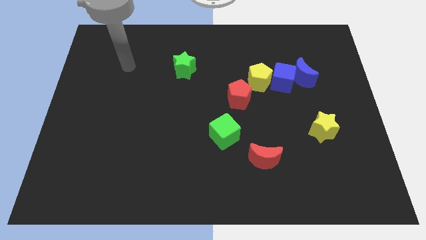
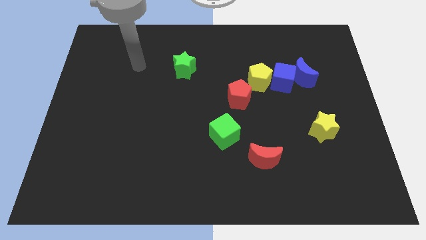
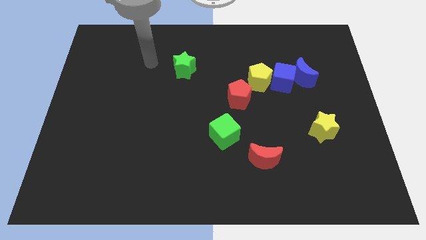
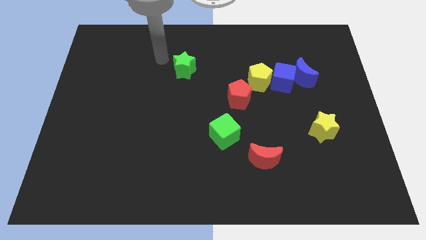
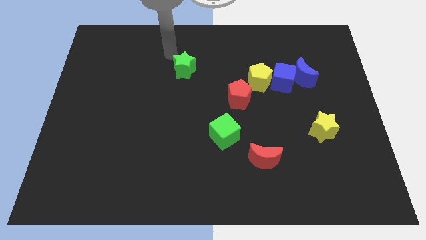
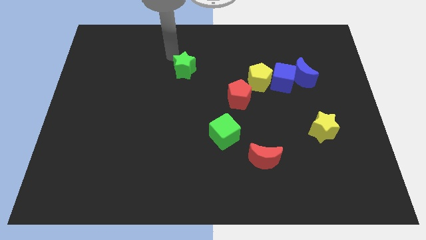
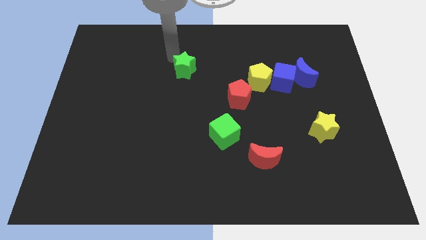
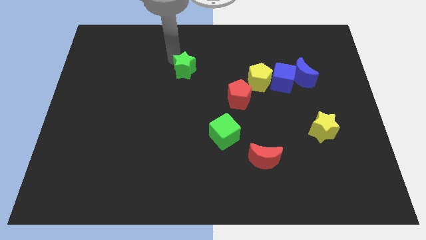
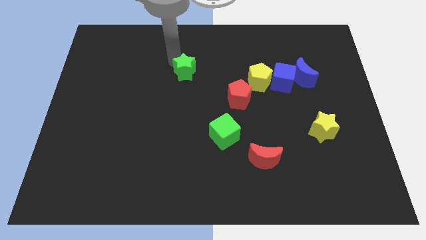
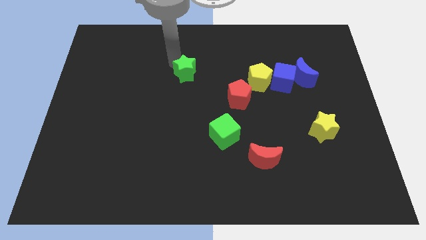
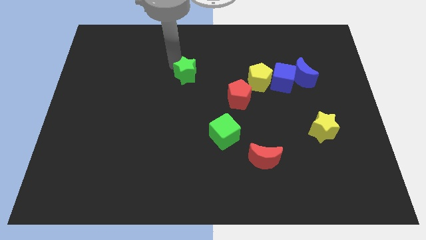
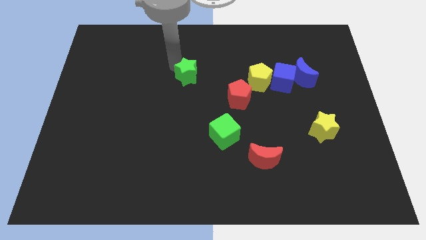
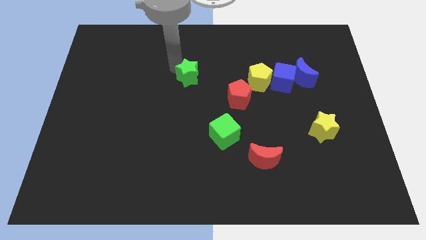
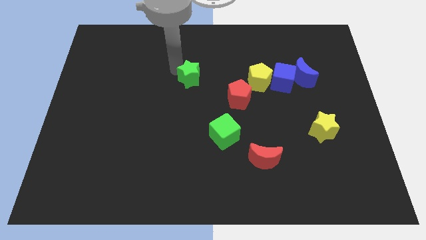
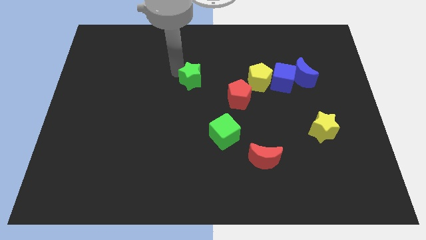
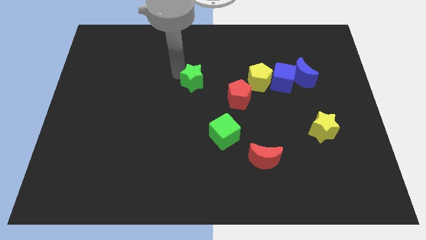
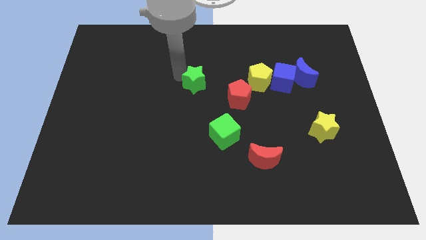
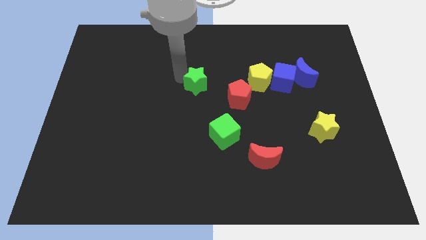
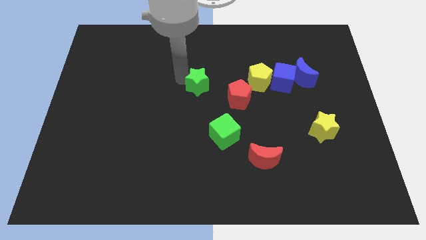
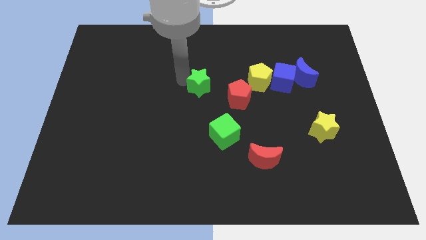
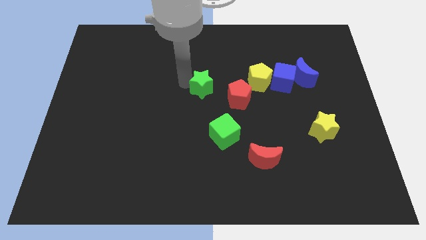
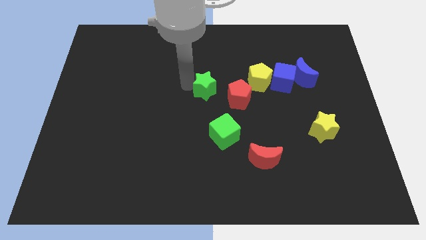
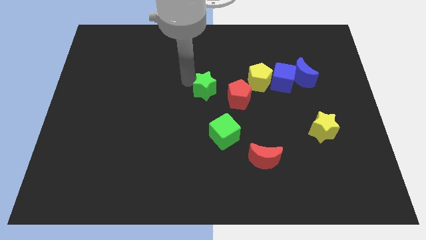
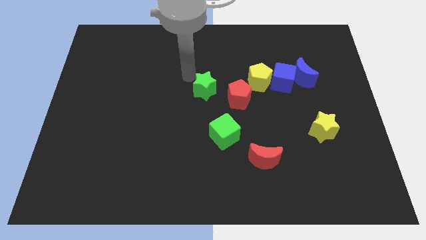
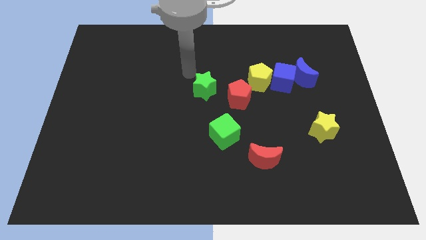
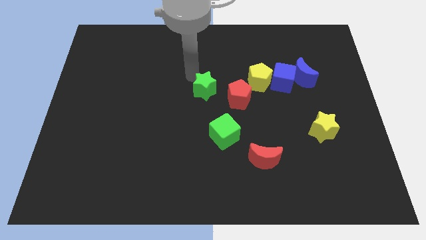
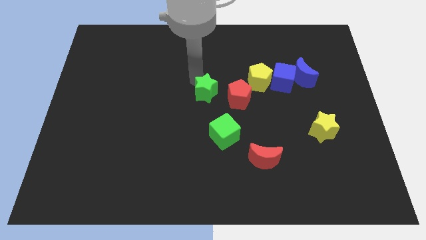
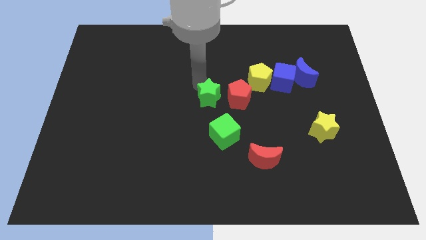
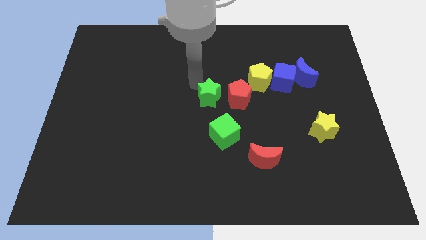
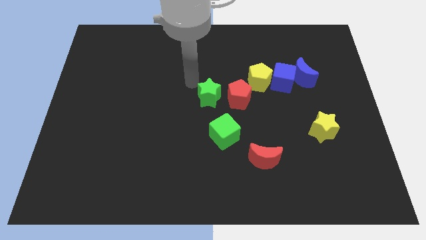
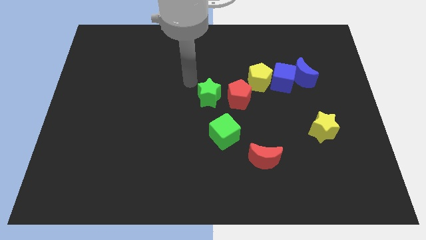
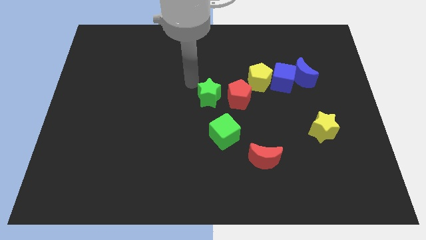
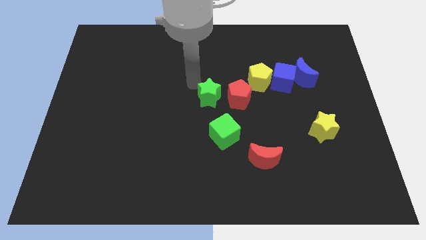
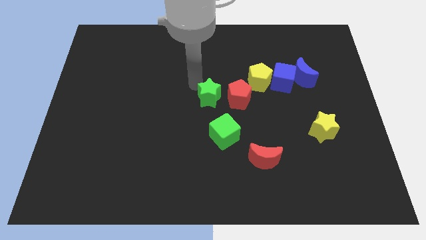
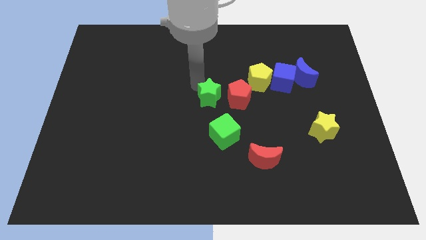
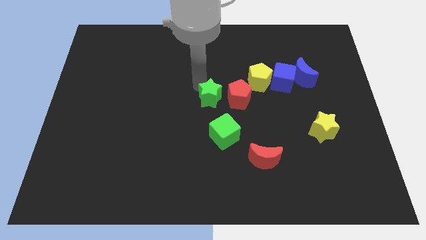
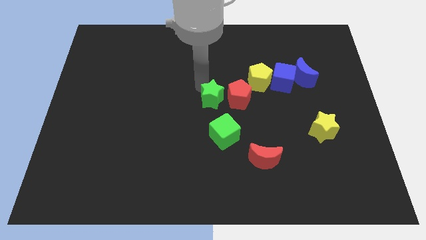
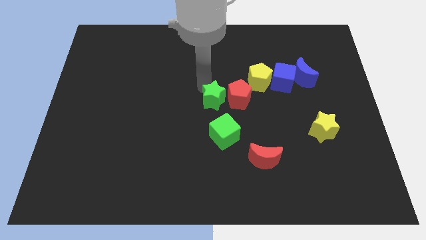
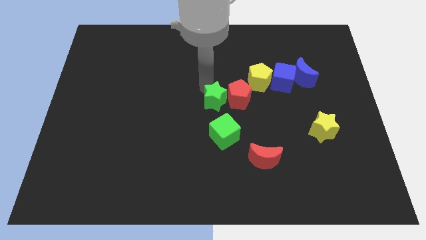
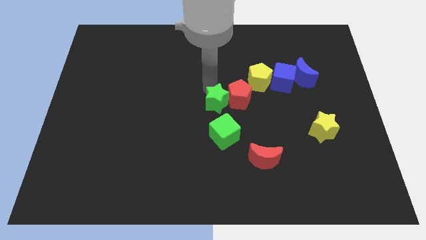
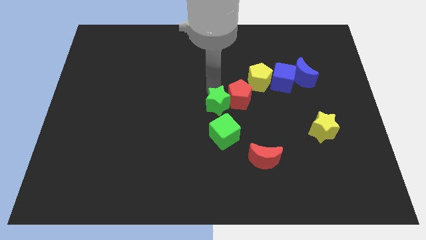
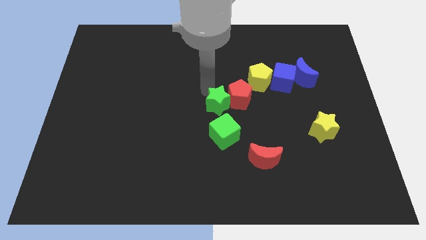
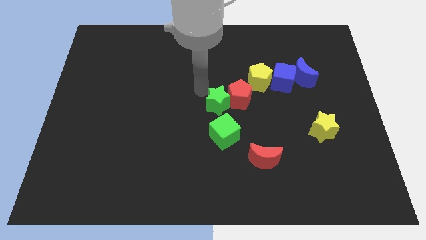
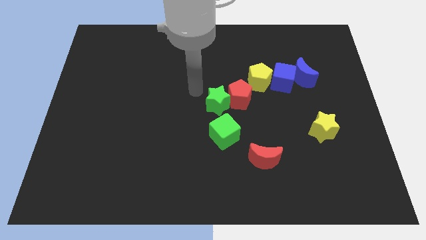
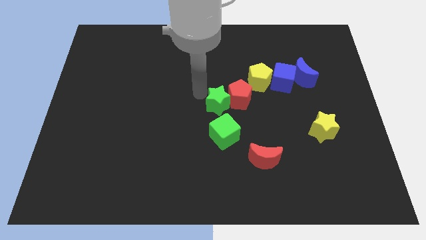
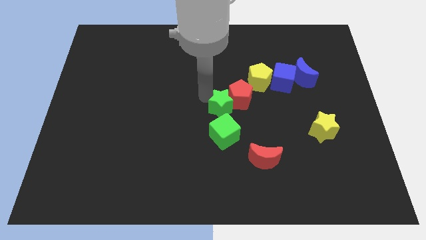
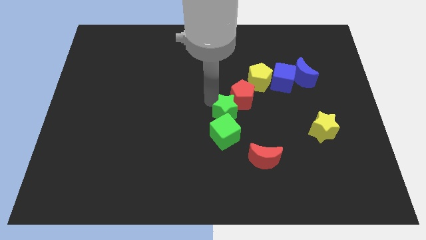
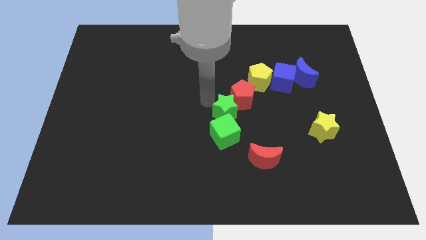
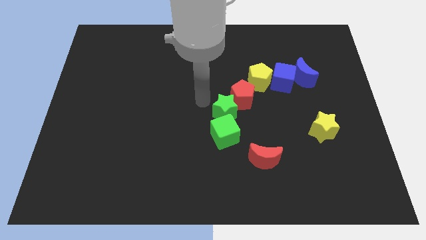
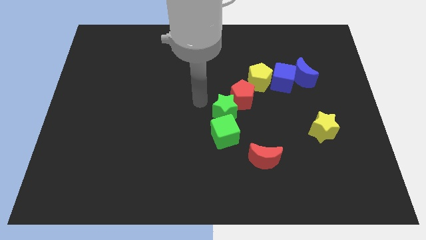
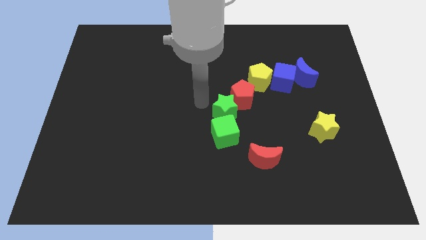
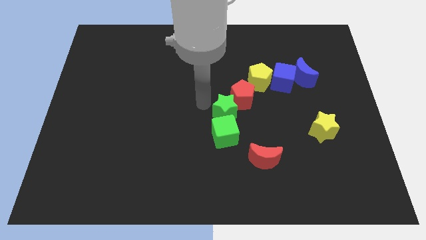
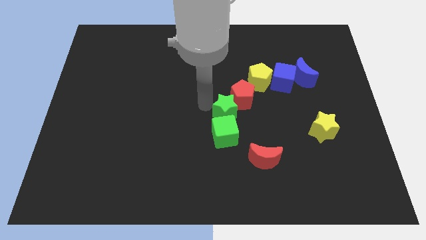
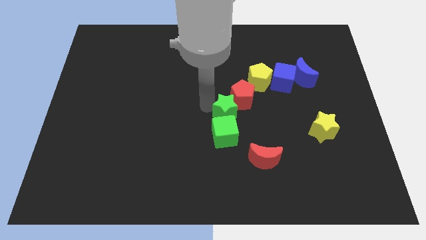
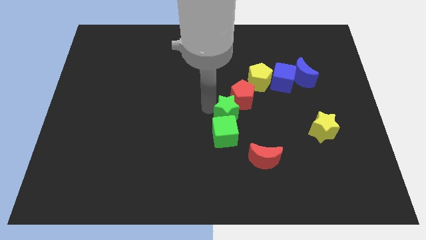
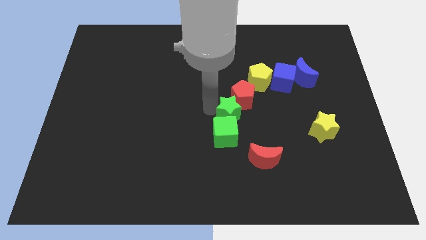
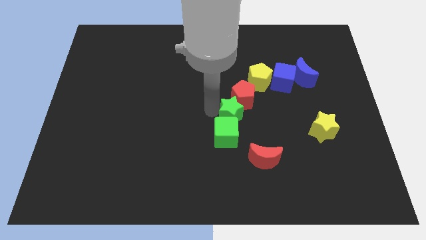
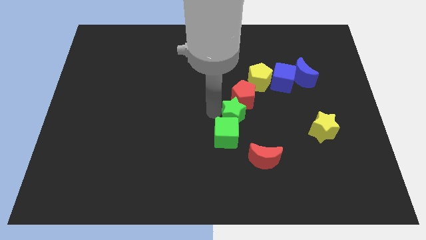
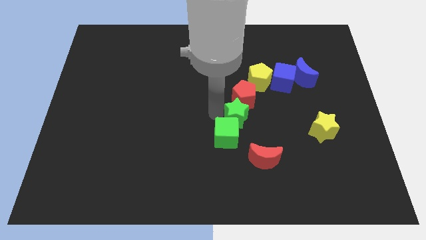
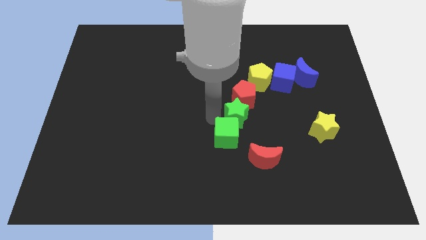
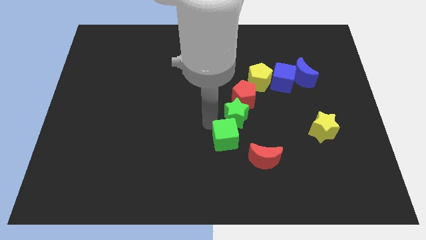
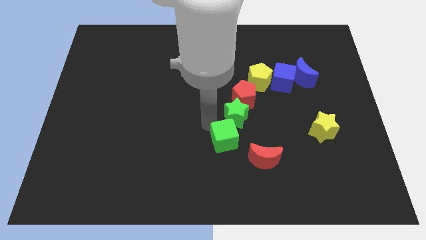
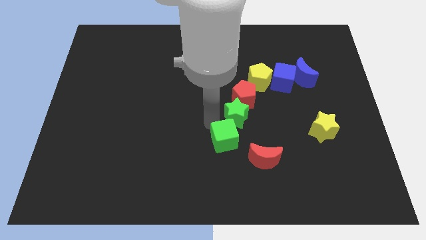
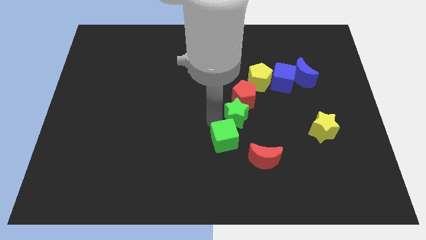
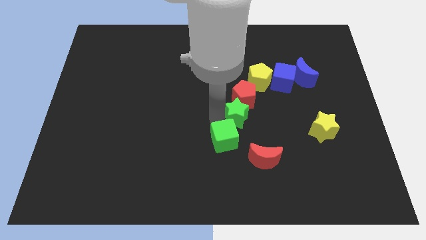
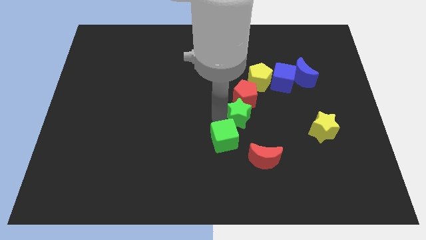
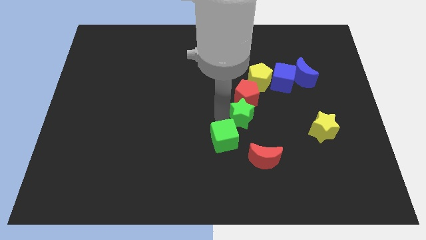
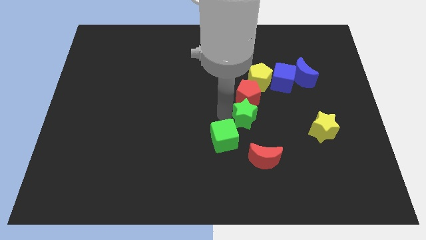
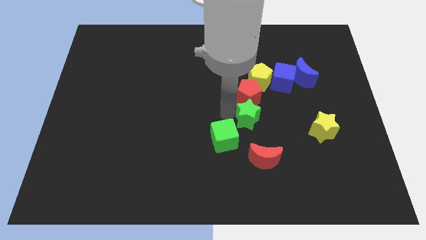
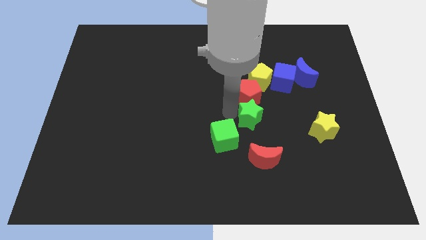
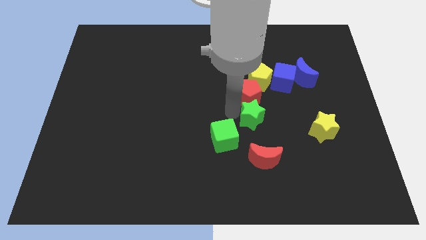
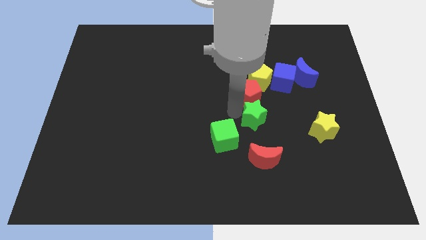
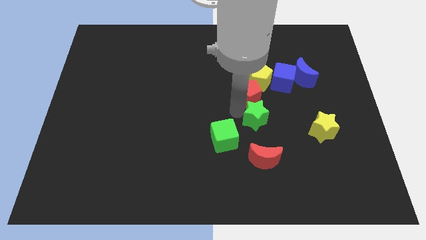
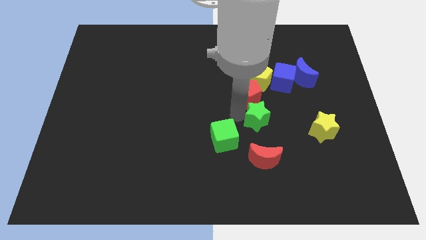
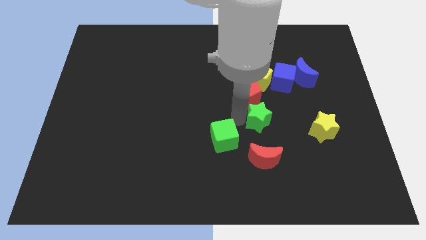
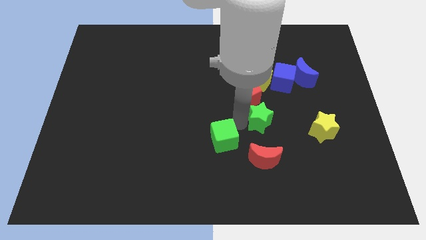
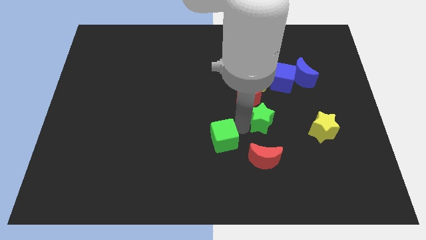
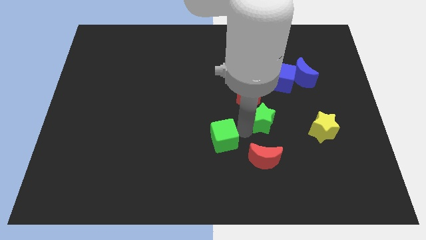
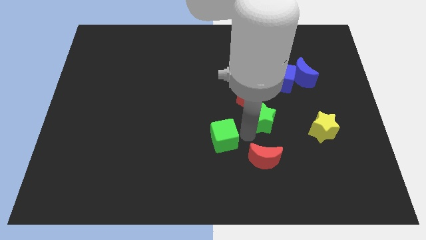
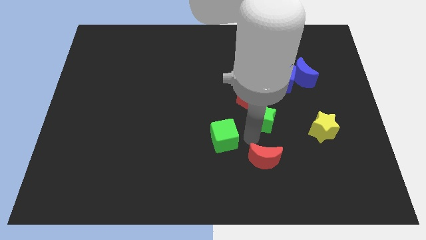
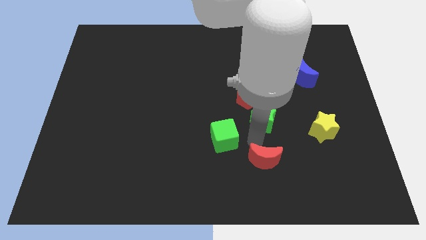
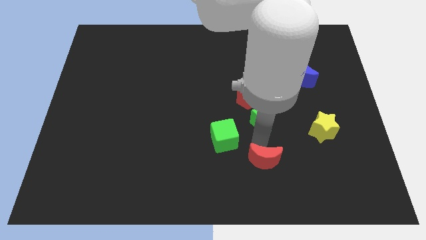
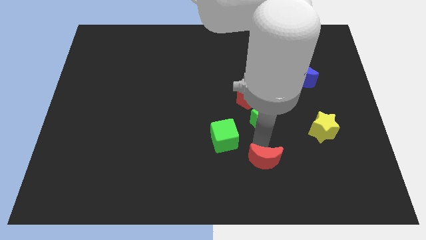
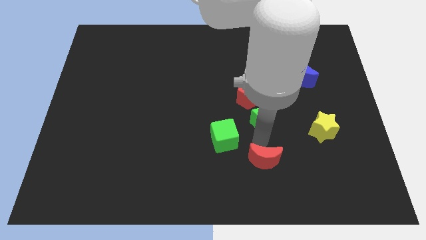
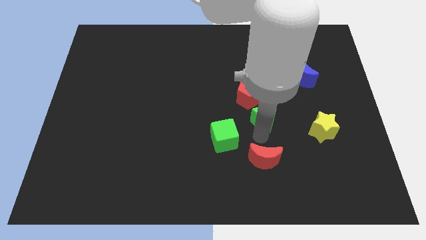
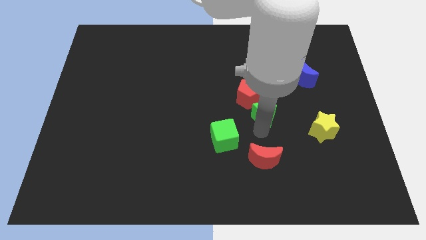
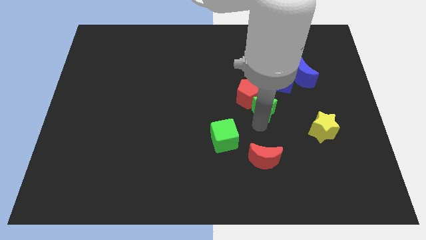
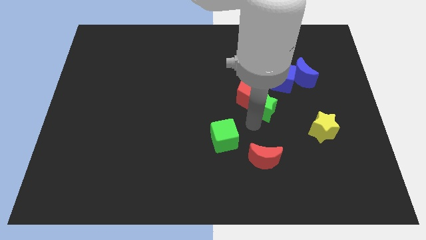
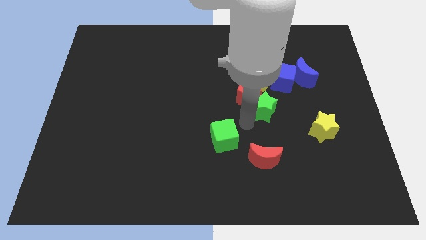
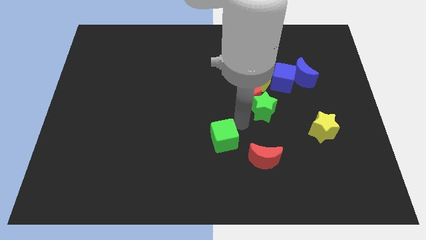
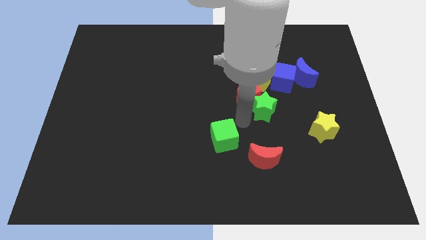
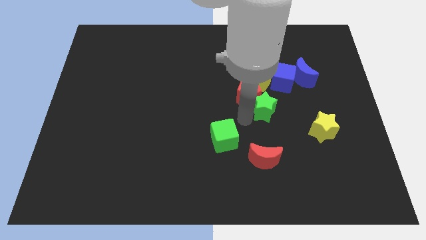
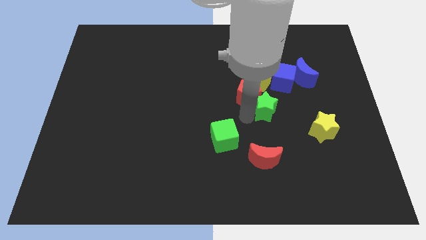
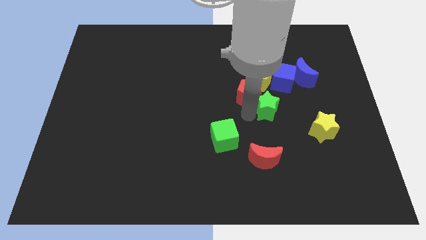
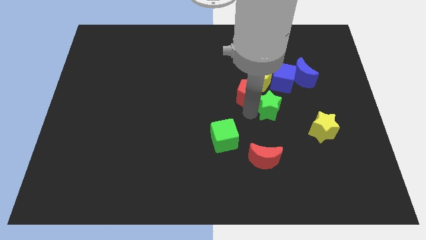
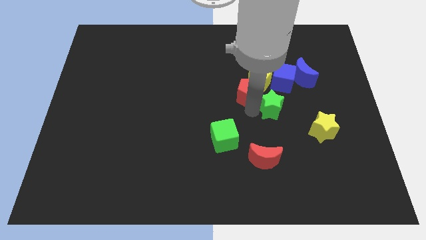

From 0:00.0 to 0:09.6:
slide the green star diagonally down and to the right of the yellow pentagon
